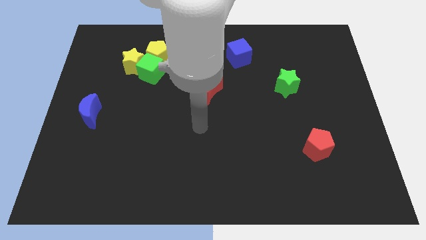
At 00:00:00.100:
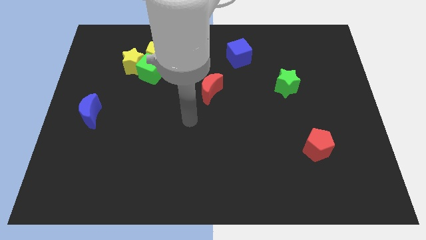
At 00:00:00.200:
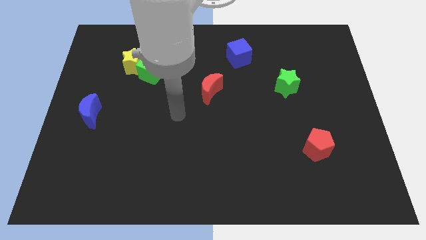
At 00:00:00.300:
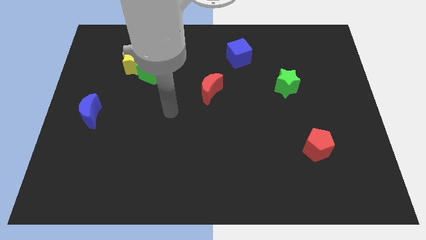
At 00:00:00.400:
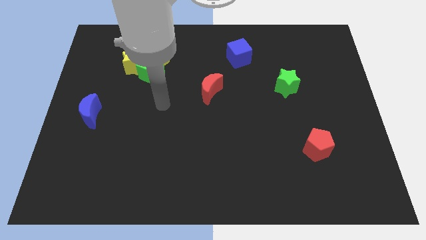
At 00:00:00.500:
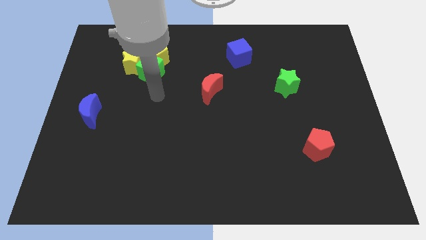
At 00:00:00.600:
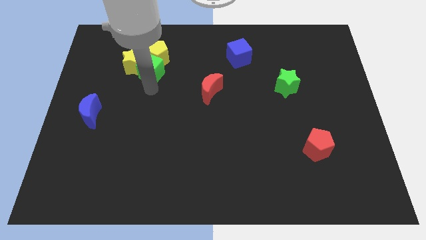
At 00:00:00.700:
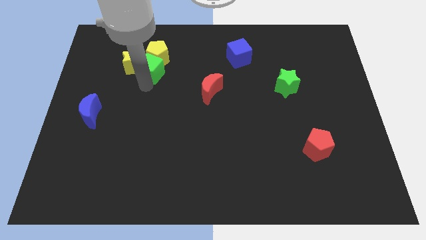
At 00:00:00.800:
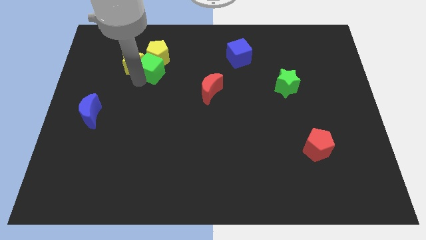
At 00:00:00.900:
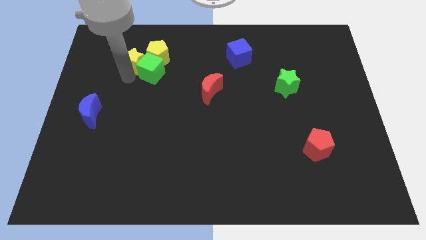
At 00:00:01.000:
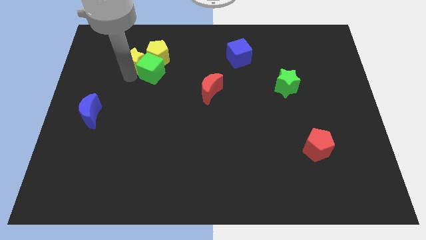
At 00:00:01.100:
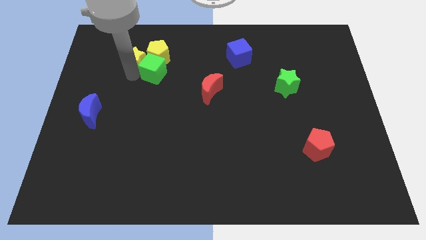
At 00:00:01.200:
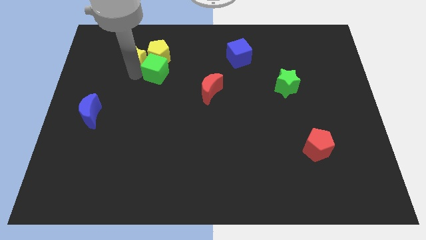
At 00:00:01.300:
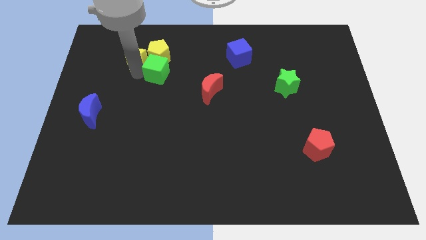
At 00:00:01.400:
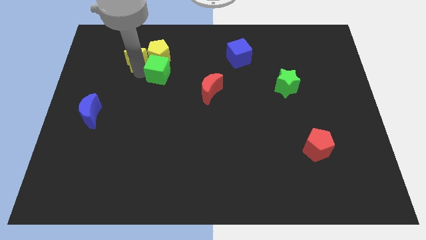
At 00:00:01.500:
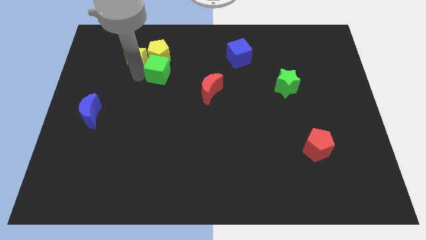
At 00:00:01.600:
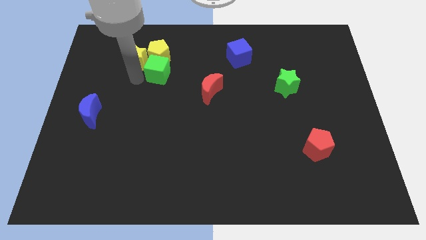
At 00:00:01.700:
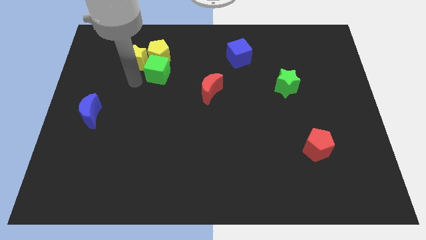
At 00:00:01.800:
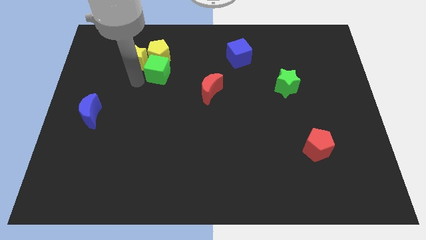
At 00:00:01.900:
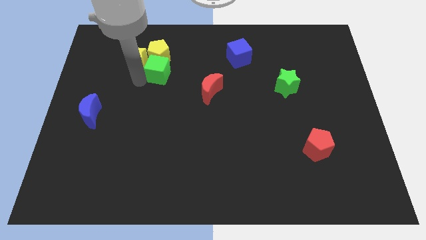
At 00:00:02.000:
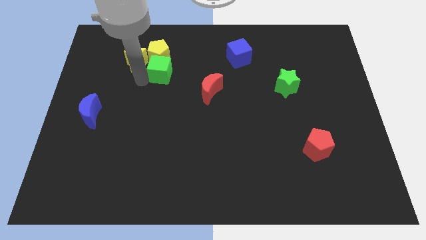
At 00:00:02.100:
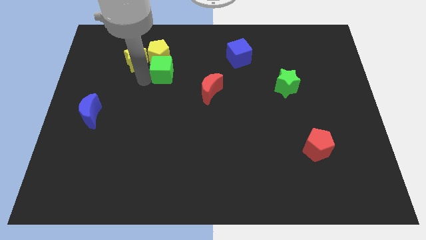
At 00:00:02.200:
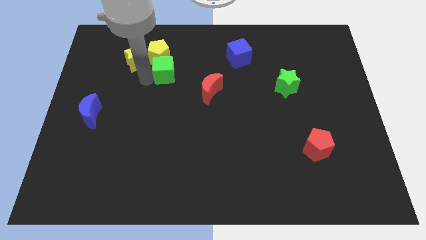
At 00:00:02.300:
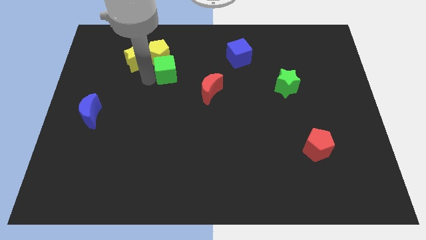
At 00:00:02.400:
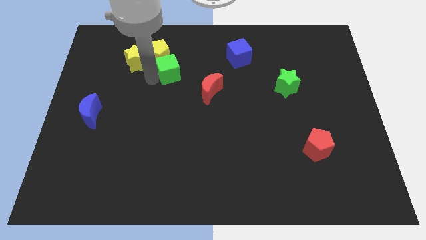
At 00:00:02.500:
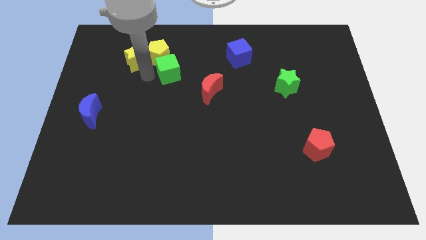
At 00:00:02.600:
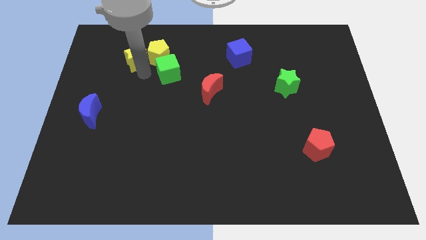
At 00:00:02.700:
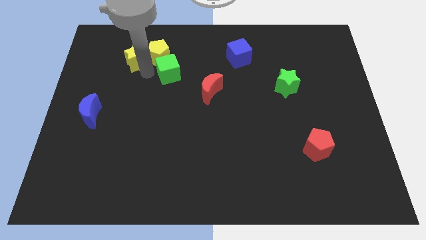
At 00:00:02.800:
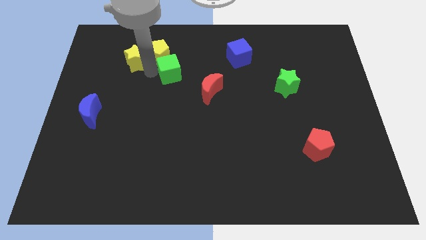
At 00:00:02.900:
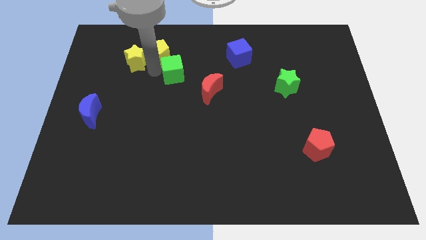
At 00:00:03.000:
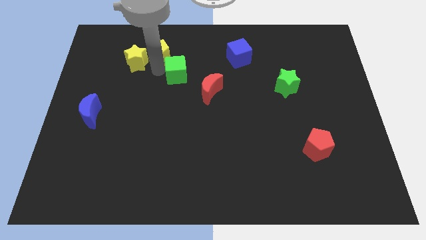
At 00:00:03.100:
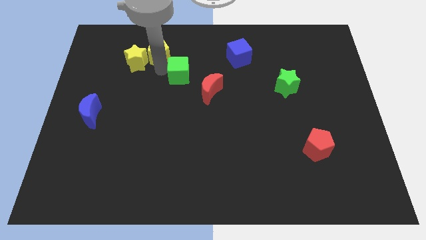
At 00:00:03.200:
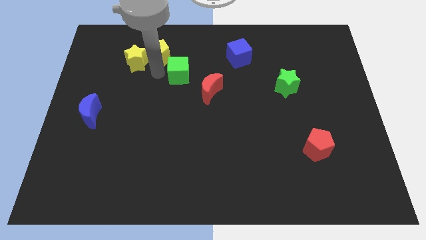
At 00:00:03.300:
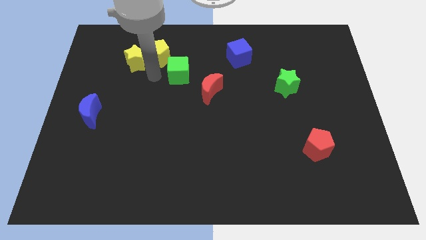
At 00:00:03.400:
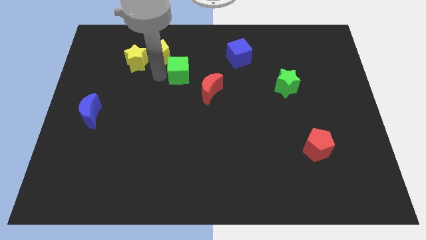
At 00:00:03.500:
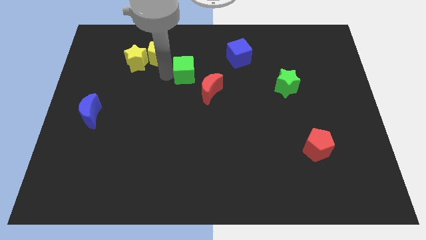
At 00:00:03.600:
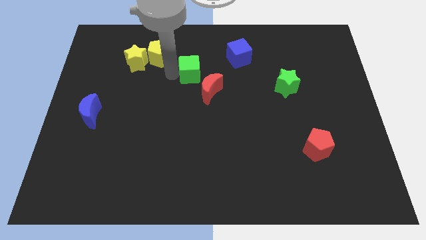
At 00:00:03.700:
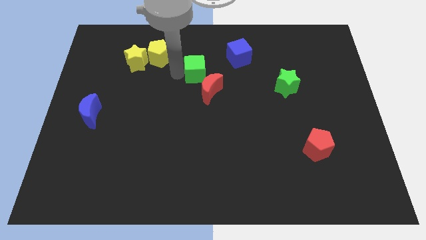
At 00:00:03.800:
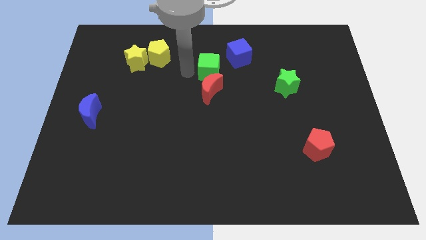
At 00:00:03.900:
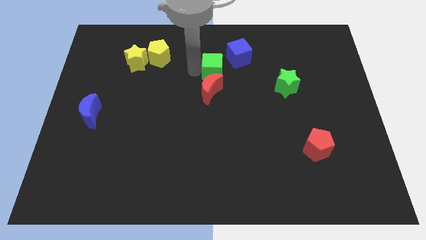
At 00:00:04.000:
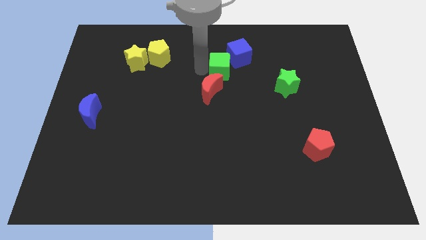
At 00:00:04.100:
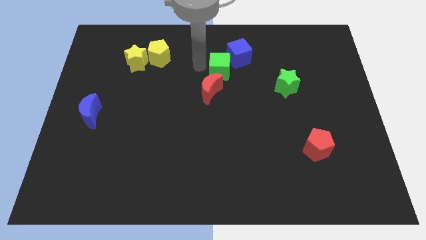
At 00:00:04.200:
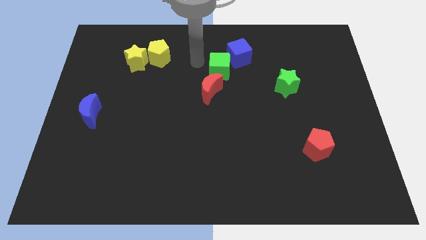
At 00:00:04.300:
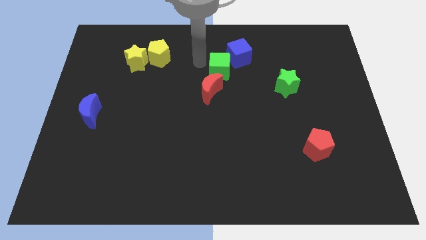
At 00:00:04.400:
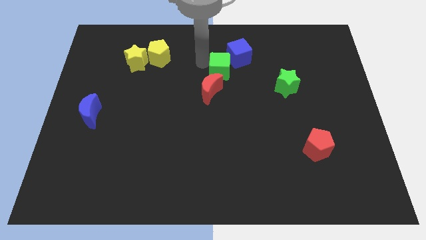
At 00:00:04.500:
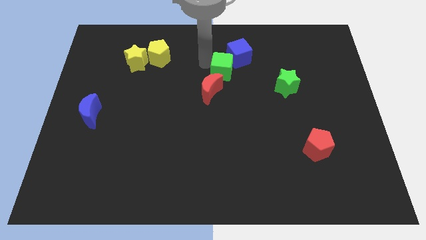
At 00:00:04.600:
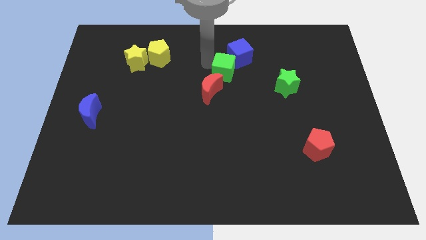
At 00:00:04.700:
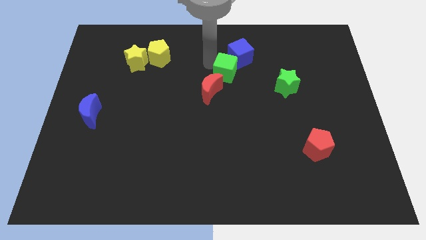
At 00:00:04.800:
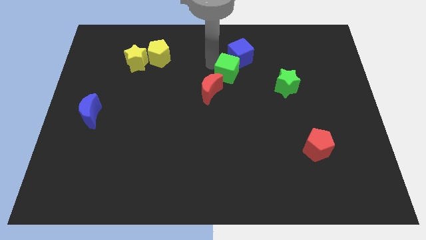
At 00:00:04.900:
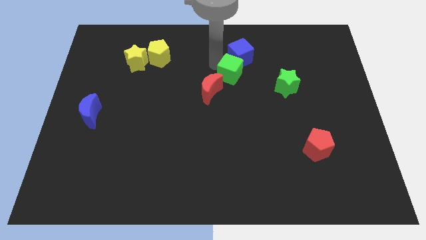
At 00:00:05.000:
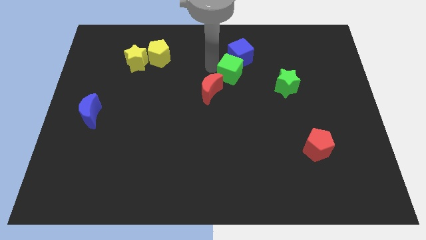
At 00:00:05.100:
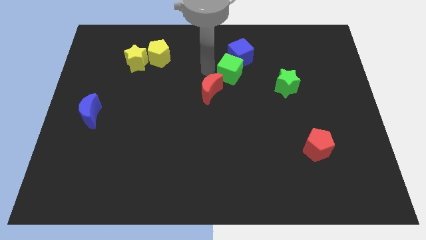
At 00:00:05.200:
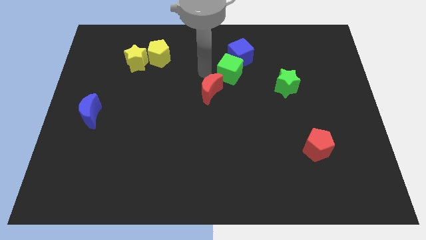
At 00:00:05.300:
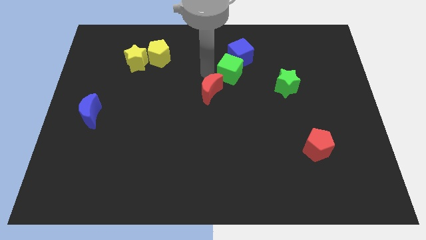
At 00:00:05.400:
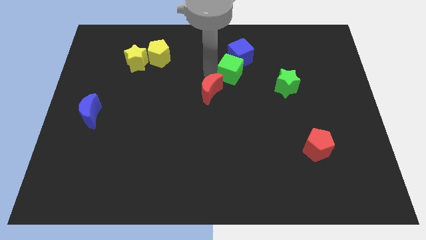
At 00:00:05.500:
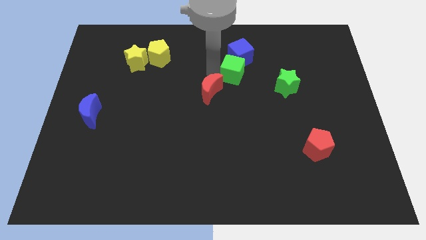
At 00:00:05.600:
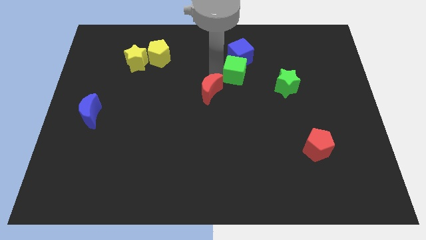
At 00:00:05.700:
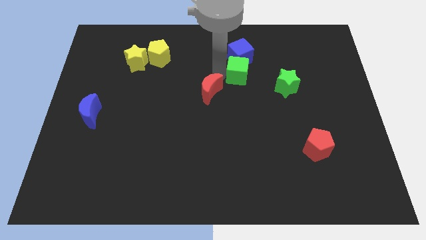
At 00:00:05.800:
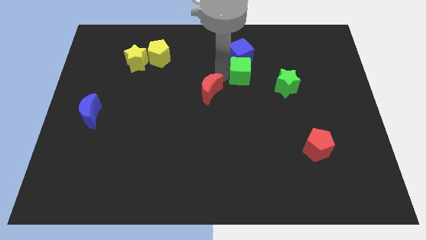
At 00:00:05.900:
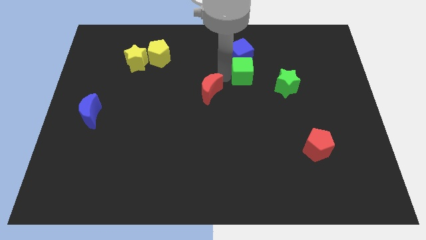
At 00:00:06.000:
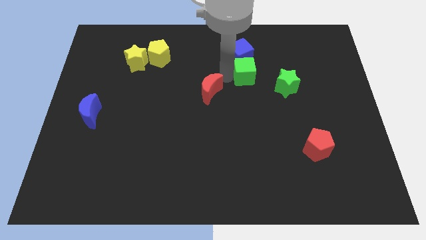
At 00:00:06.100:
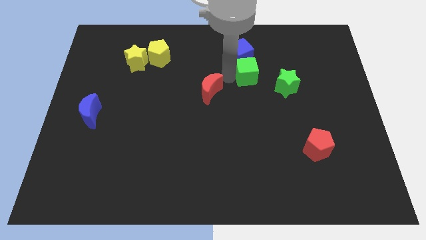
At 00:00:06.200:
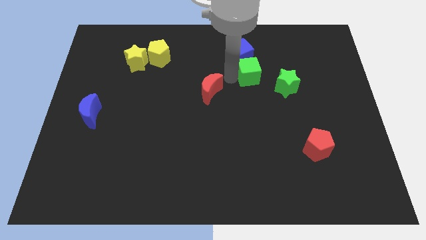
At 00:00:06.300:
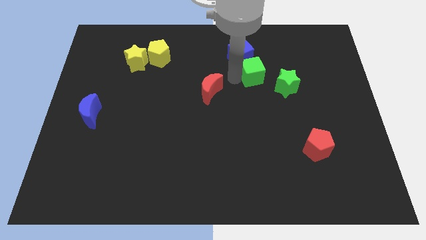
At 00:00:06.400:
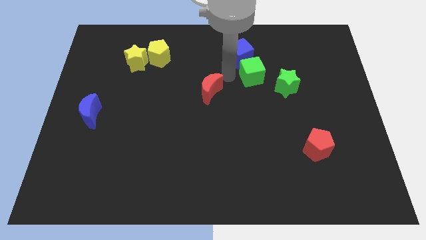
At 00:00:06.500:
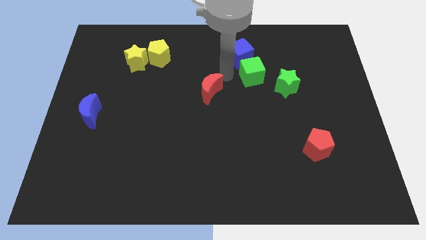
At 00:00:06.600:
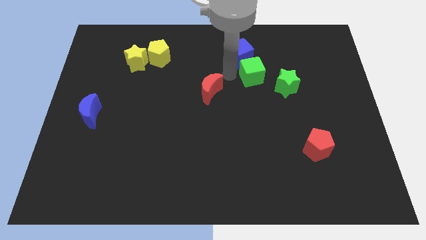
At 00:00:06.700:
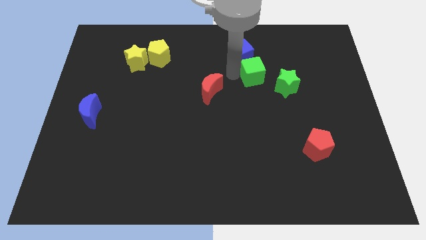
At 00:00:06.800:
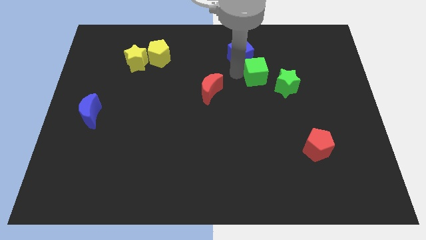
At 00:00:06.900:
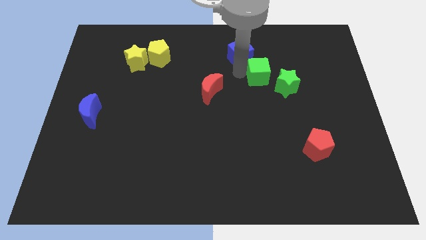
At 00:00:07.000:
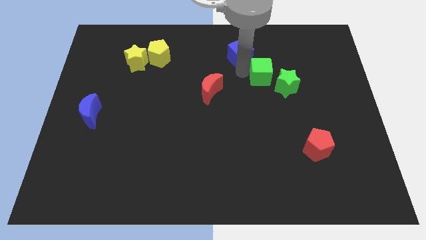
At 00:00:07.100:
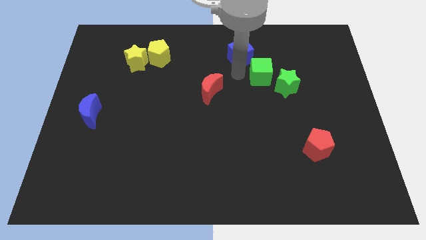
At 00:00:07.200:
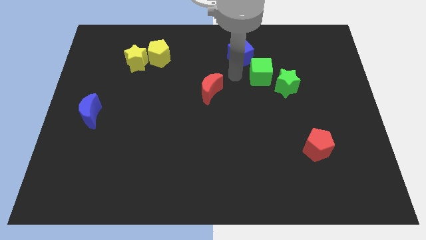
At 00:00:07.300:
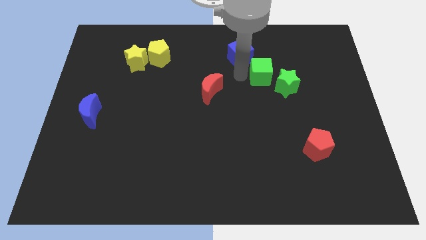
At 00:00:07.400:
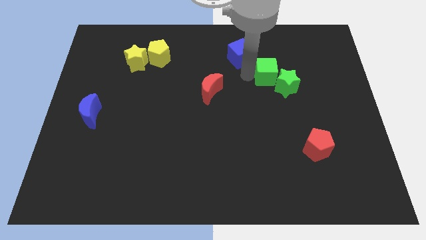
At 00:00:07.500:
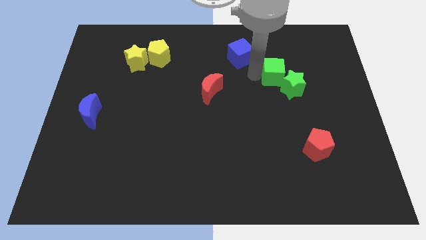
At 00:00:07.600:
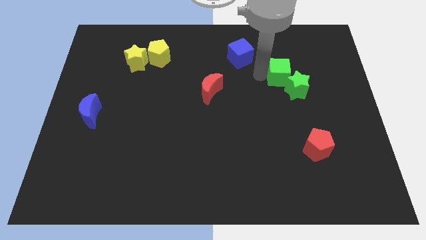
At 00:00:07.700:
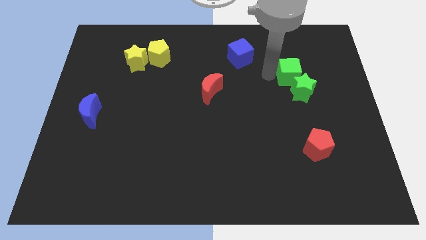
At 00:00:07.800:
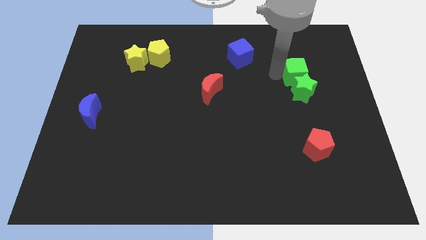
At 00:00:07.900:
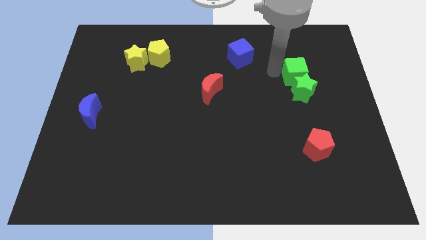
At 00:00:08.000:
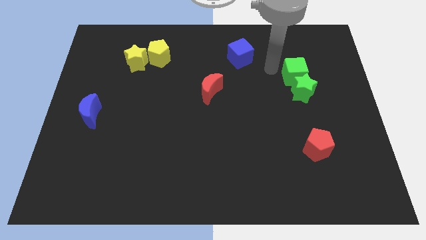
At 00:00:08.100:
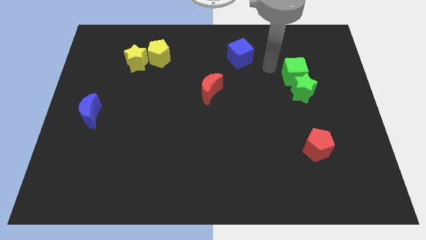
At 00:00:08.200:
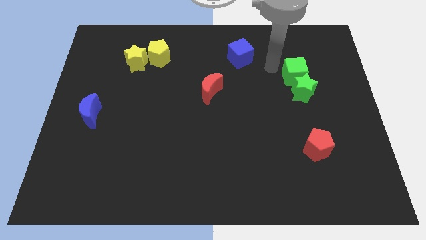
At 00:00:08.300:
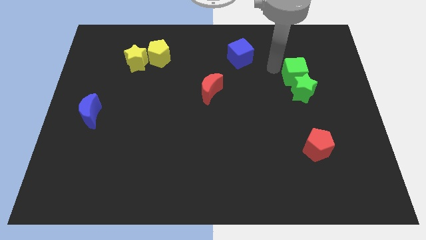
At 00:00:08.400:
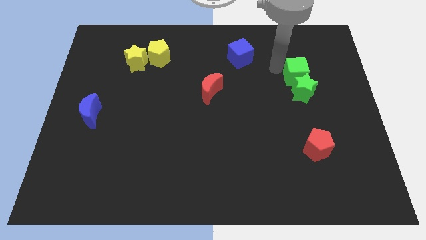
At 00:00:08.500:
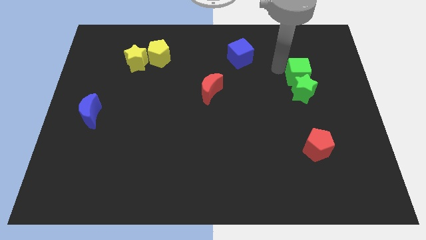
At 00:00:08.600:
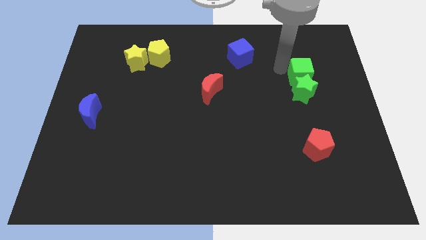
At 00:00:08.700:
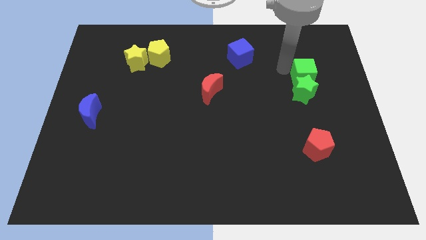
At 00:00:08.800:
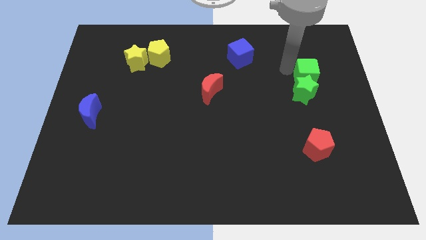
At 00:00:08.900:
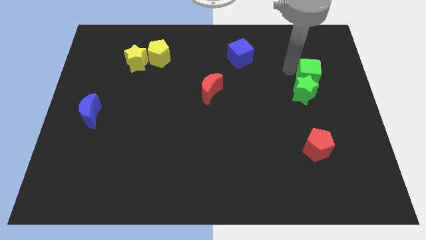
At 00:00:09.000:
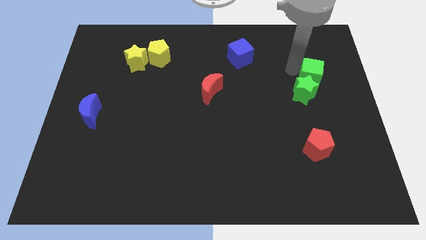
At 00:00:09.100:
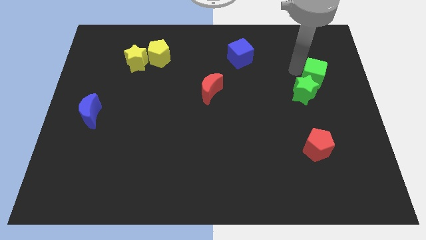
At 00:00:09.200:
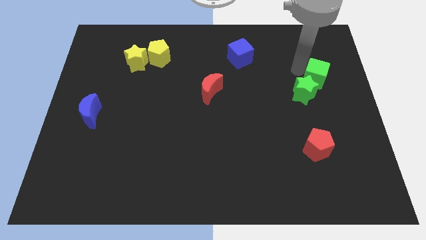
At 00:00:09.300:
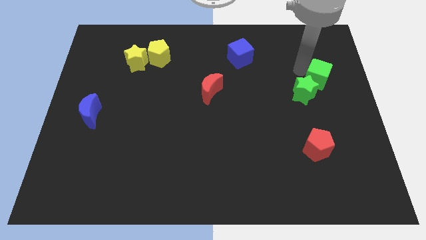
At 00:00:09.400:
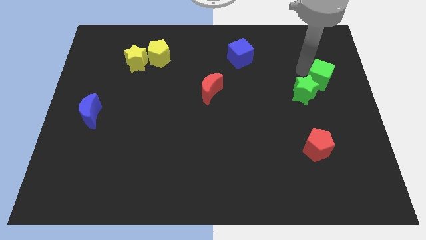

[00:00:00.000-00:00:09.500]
put the green cube to the center right
